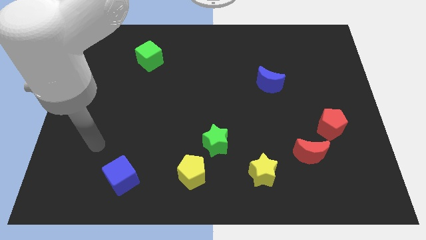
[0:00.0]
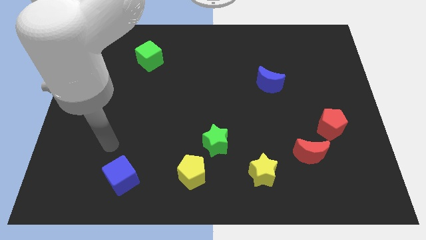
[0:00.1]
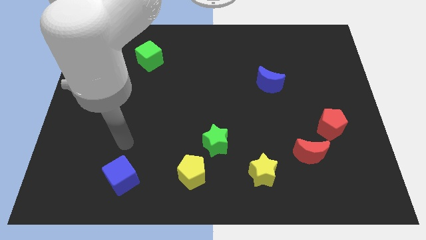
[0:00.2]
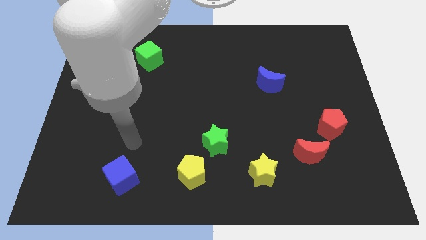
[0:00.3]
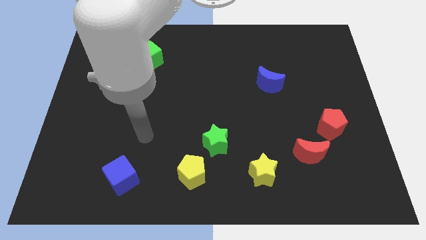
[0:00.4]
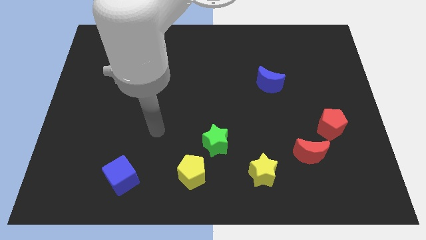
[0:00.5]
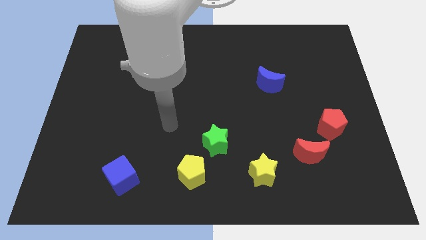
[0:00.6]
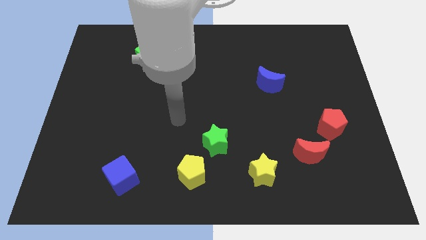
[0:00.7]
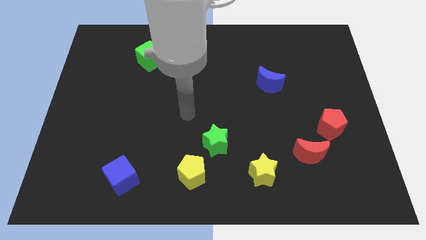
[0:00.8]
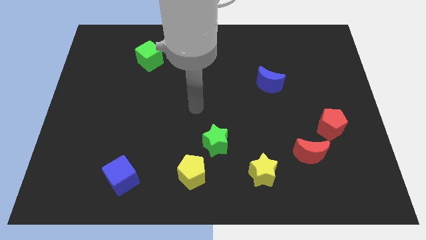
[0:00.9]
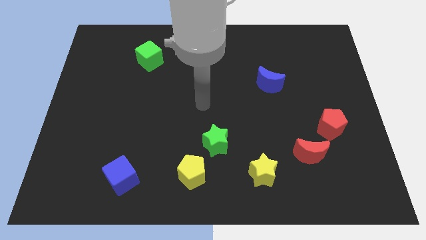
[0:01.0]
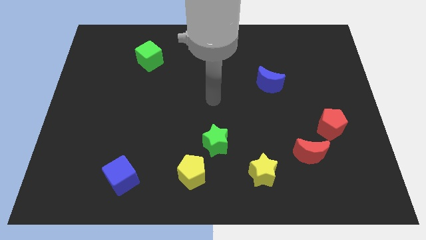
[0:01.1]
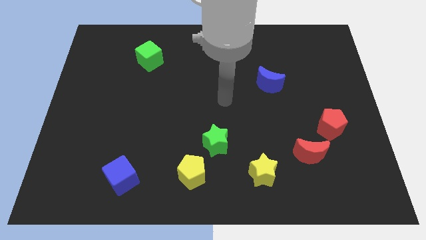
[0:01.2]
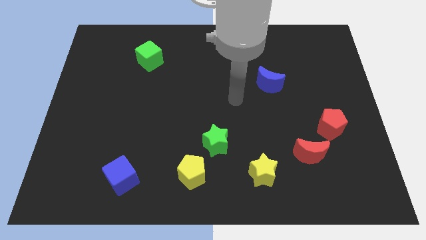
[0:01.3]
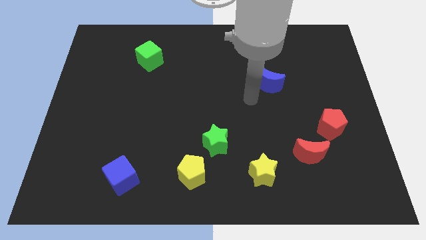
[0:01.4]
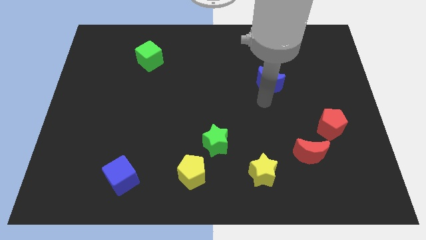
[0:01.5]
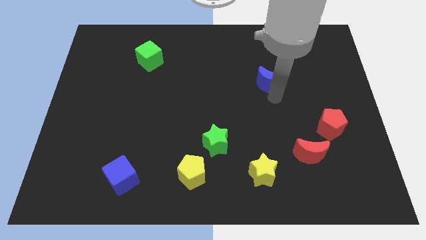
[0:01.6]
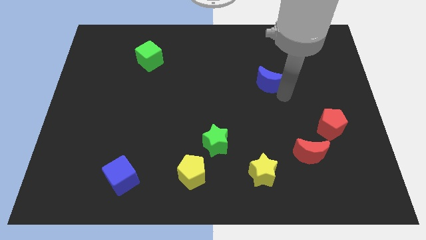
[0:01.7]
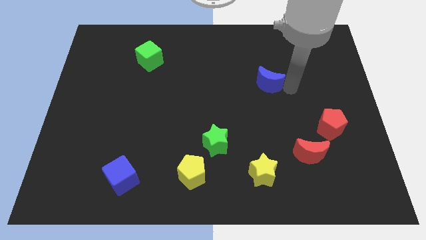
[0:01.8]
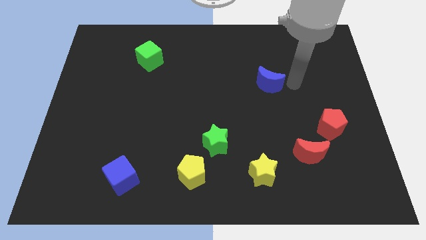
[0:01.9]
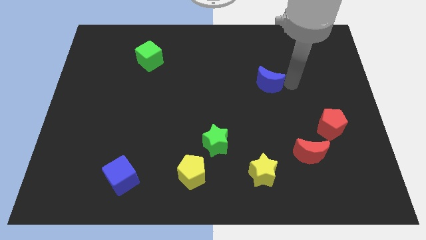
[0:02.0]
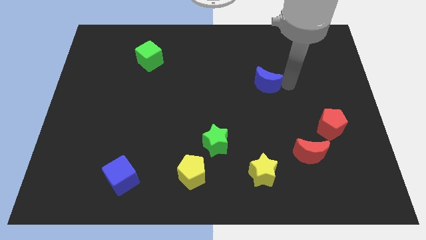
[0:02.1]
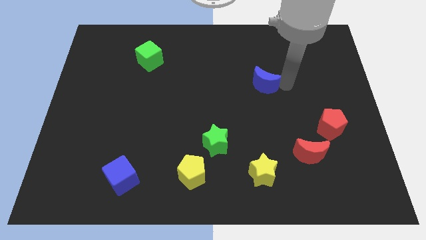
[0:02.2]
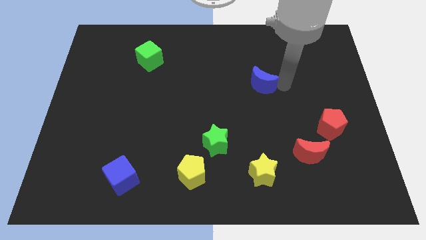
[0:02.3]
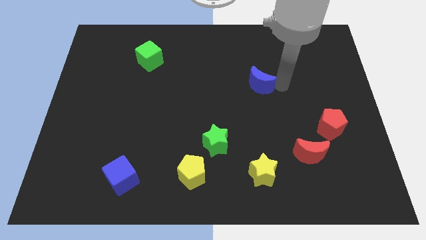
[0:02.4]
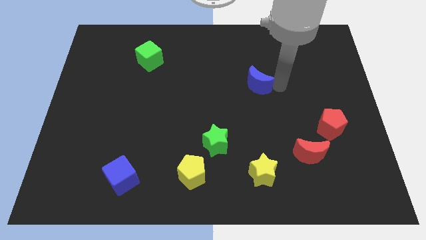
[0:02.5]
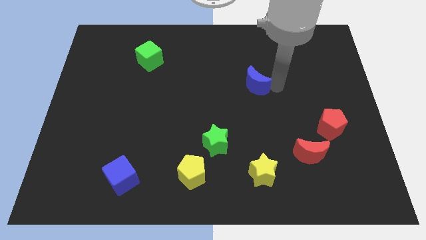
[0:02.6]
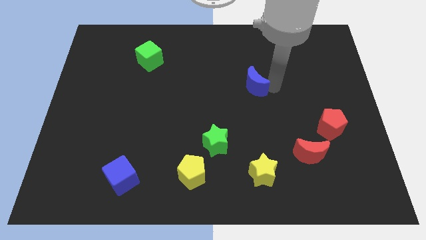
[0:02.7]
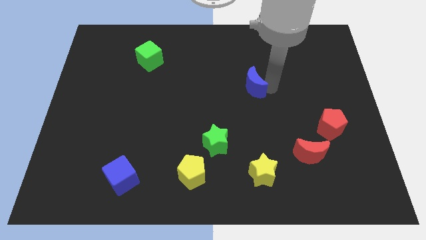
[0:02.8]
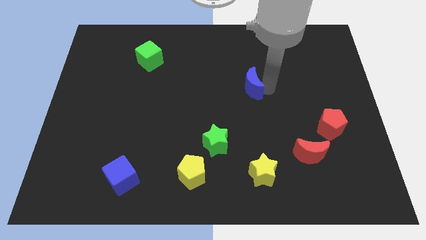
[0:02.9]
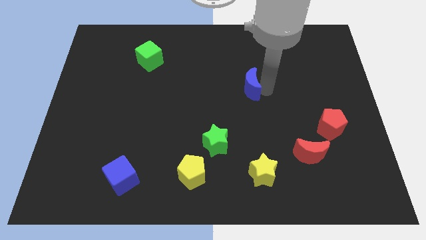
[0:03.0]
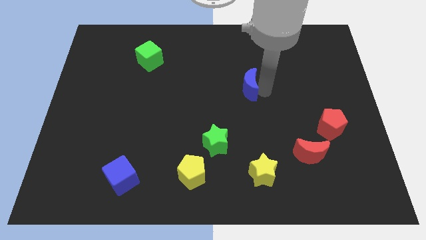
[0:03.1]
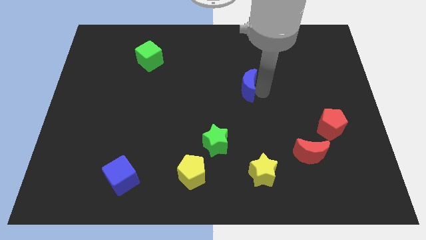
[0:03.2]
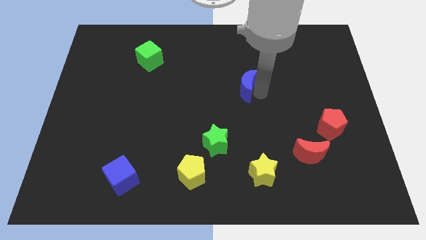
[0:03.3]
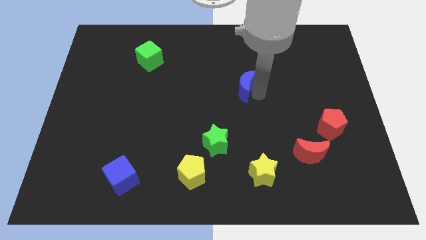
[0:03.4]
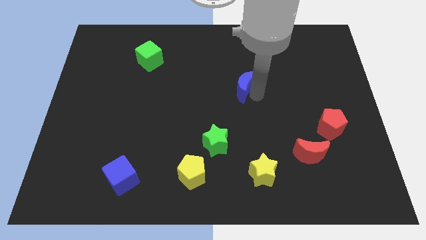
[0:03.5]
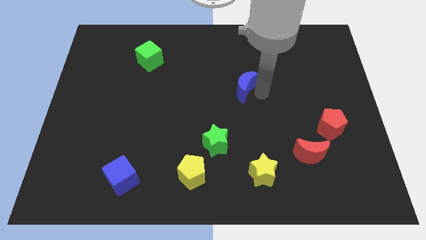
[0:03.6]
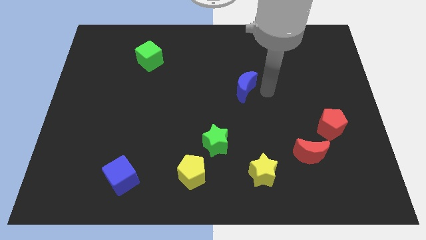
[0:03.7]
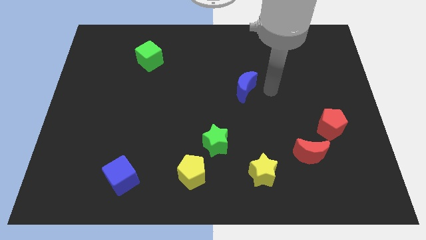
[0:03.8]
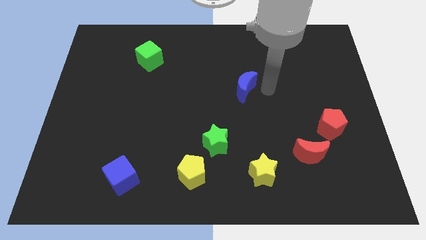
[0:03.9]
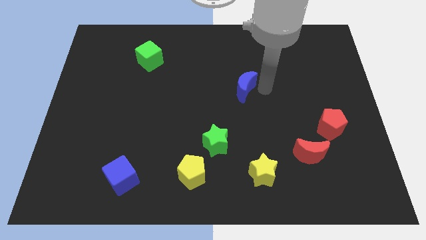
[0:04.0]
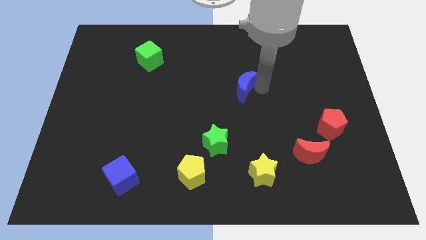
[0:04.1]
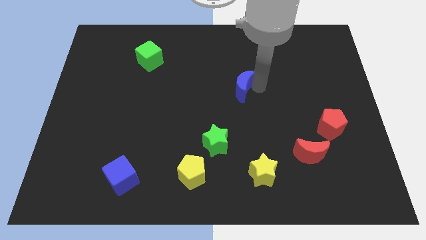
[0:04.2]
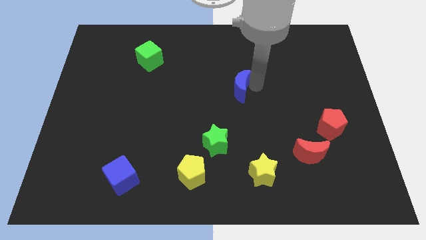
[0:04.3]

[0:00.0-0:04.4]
slightly slide the blue moon to the left

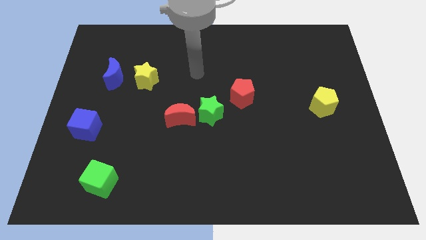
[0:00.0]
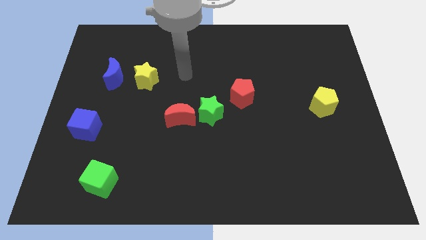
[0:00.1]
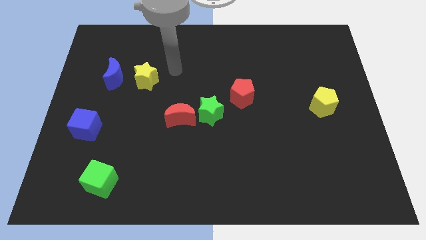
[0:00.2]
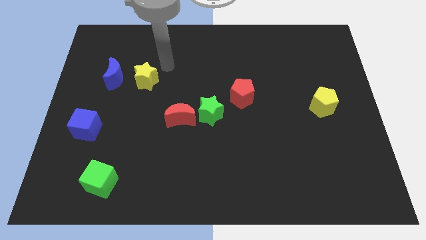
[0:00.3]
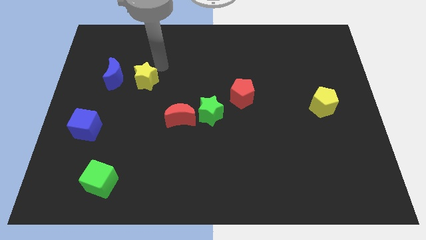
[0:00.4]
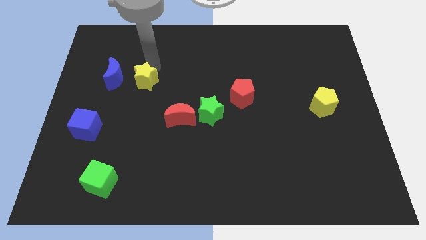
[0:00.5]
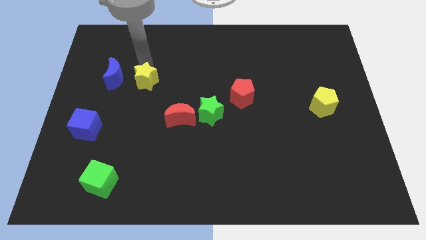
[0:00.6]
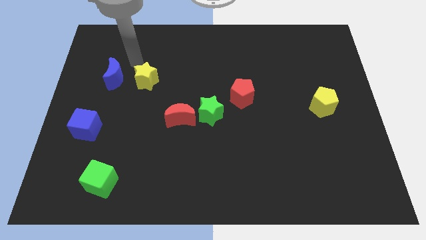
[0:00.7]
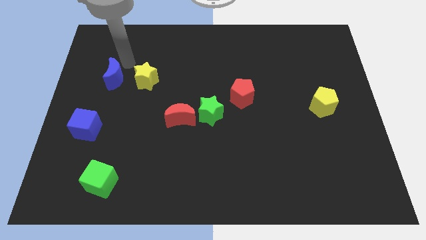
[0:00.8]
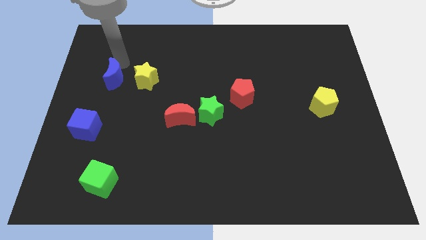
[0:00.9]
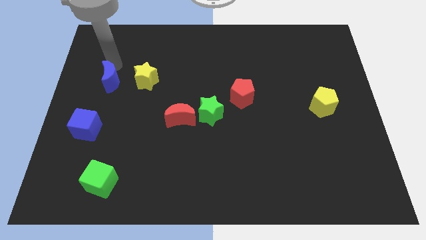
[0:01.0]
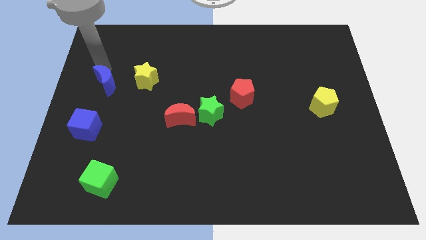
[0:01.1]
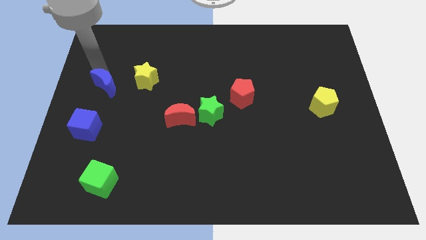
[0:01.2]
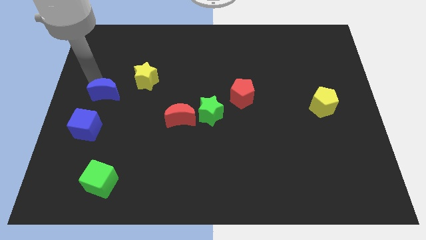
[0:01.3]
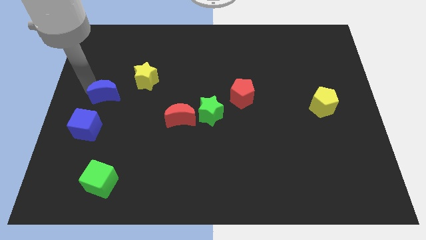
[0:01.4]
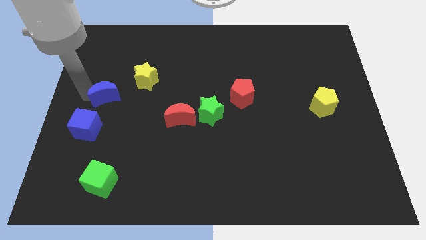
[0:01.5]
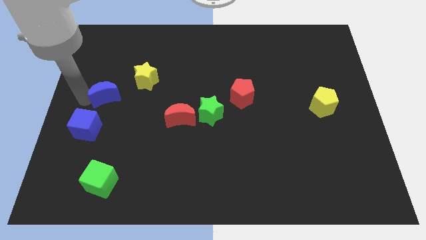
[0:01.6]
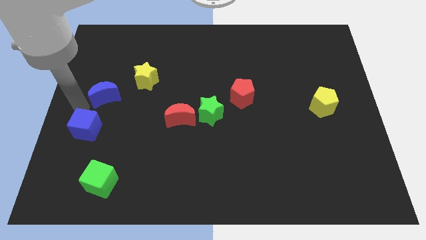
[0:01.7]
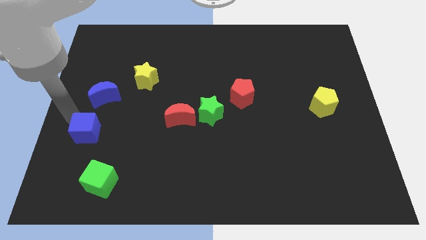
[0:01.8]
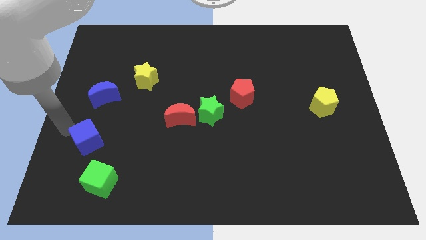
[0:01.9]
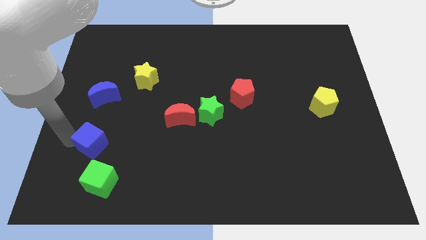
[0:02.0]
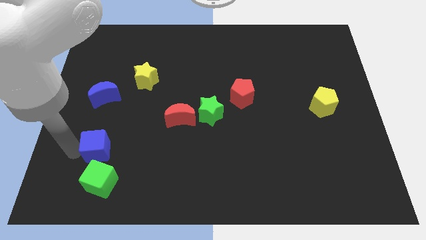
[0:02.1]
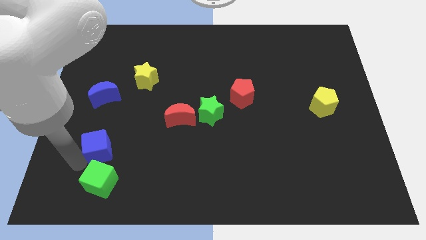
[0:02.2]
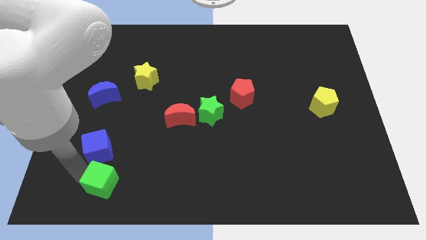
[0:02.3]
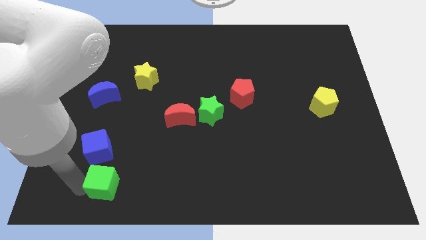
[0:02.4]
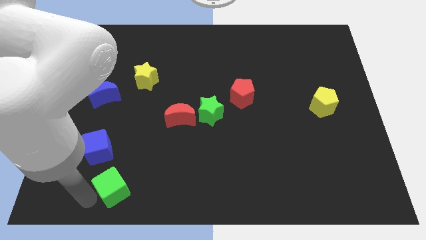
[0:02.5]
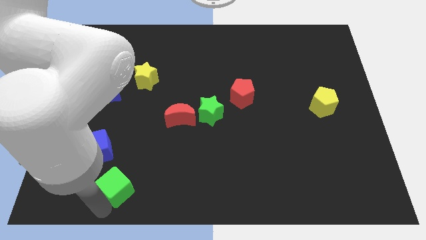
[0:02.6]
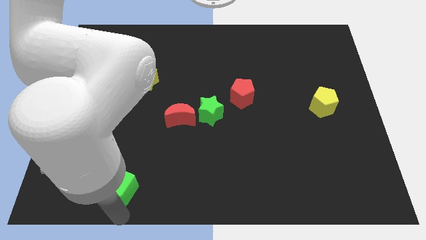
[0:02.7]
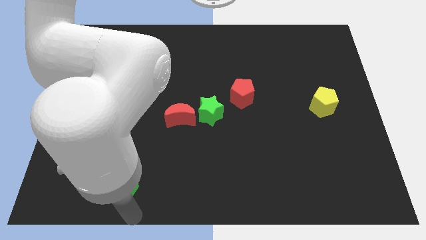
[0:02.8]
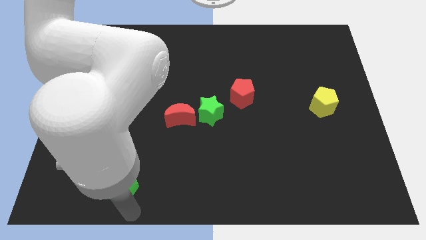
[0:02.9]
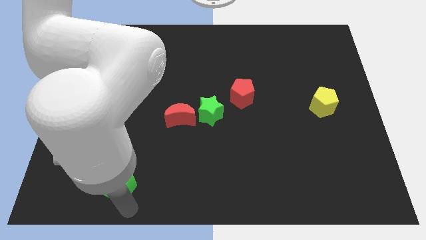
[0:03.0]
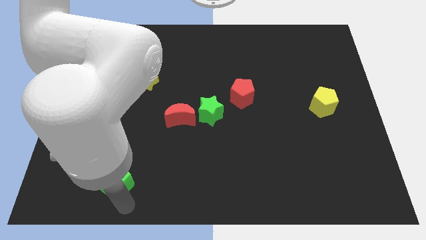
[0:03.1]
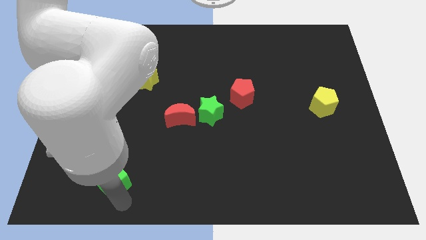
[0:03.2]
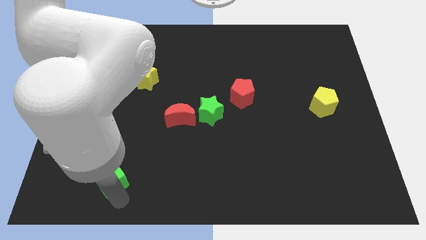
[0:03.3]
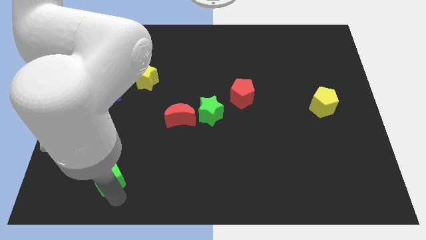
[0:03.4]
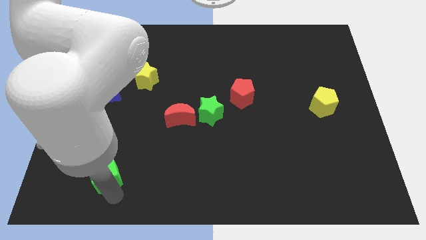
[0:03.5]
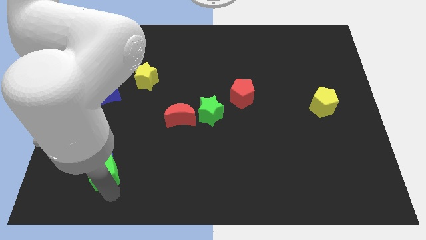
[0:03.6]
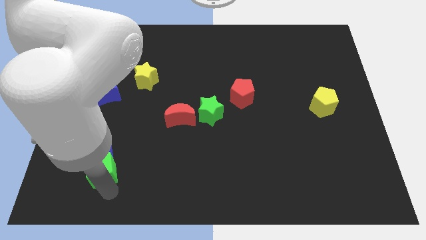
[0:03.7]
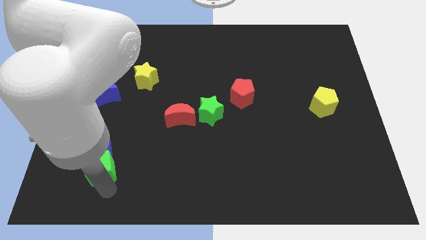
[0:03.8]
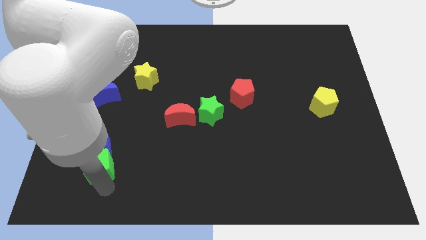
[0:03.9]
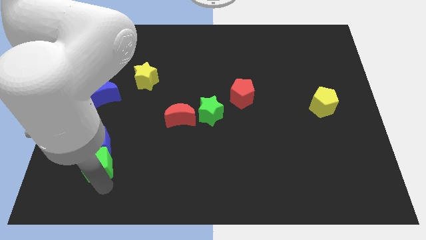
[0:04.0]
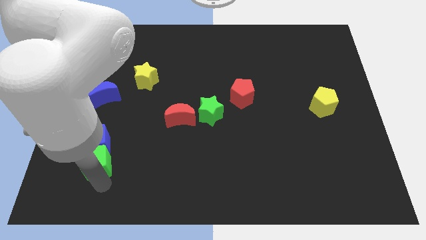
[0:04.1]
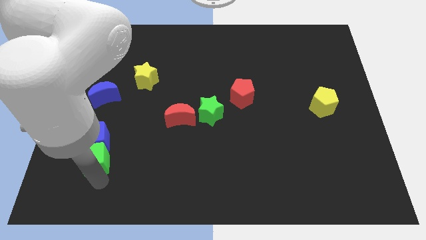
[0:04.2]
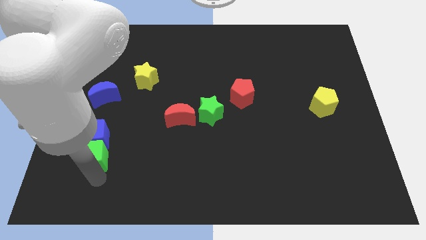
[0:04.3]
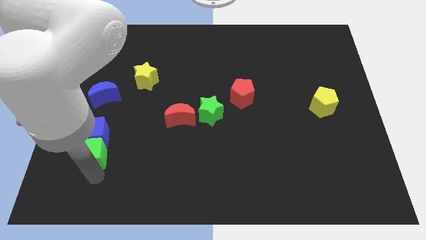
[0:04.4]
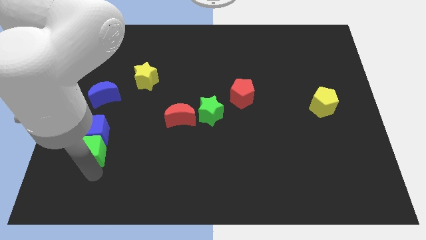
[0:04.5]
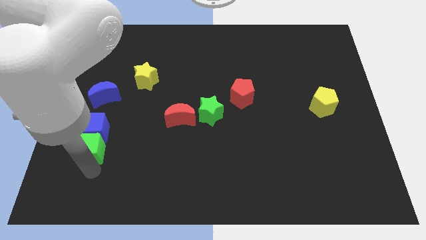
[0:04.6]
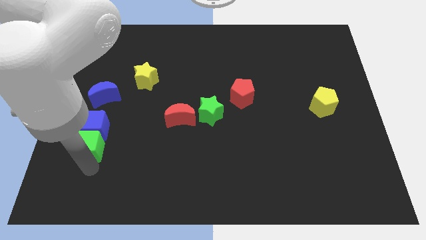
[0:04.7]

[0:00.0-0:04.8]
slightly move the green cube upwards
